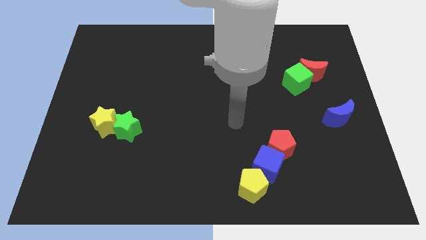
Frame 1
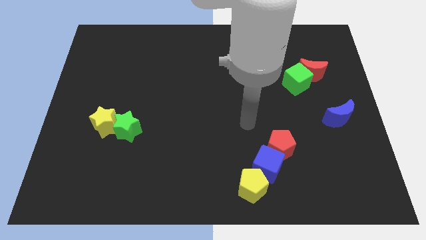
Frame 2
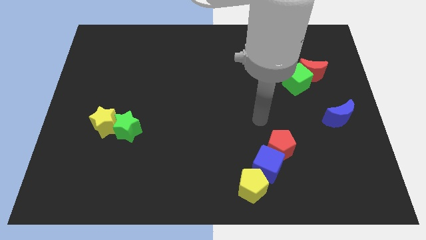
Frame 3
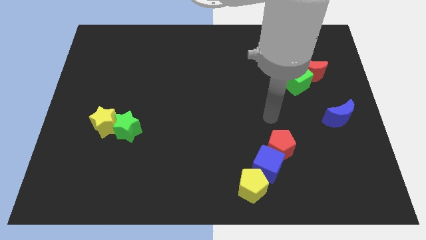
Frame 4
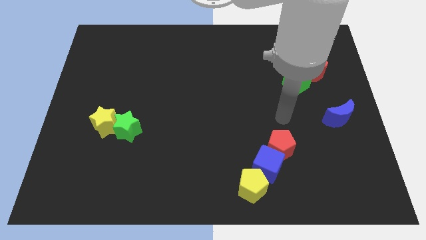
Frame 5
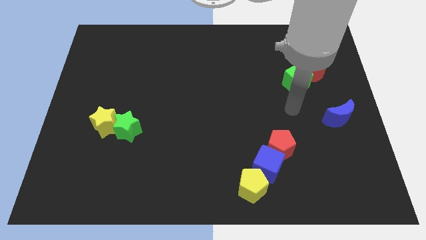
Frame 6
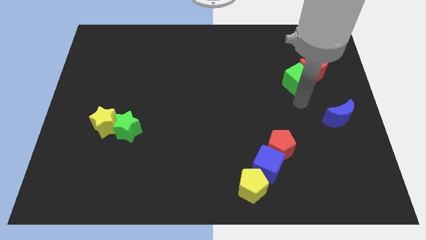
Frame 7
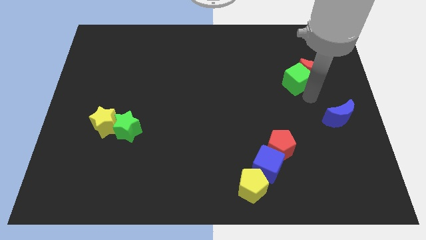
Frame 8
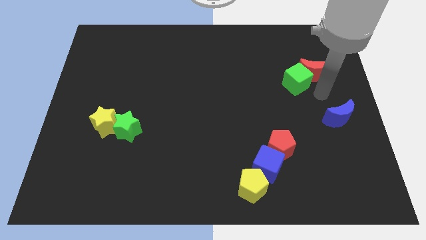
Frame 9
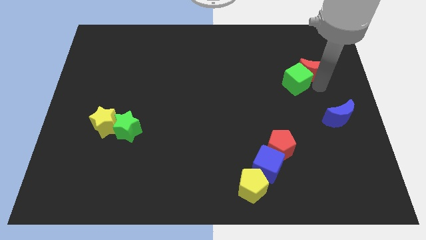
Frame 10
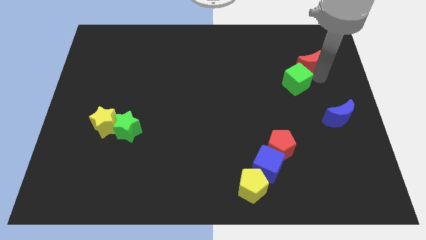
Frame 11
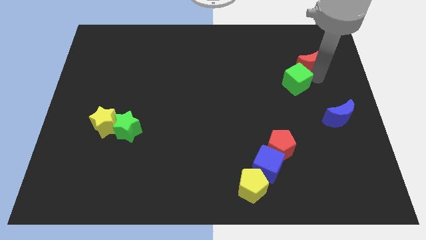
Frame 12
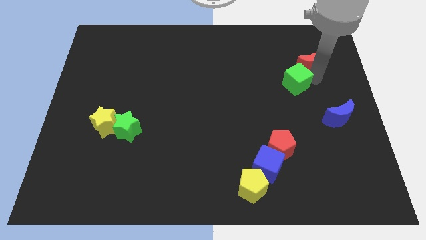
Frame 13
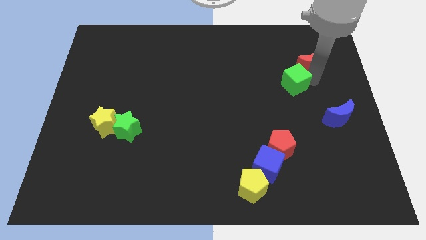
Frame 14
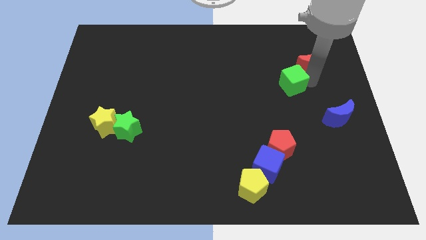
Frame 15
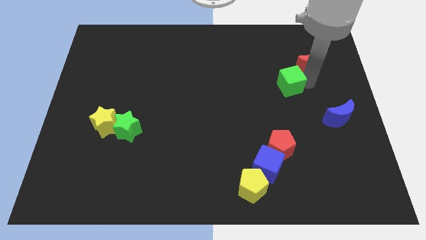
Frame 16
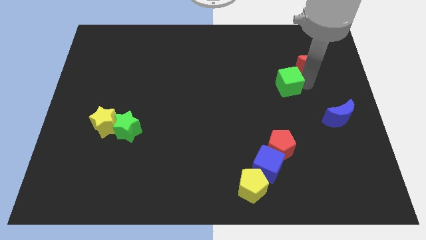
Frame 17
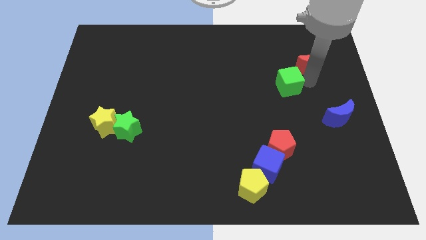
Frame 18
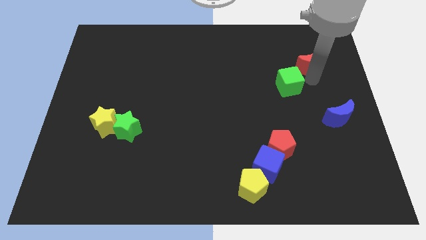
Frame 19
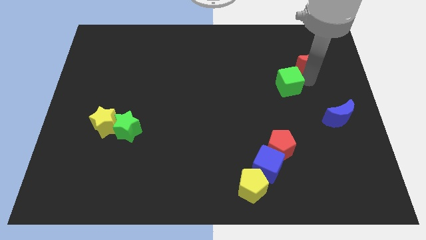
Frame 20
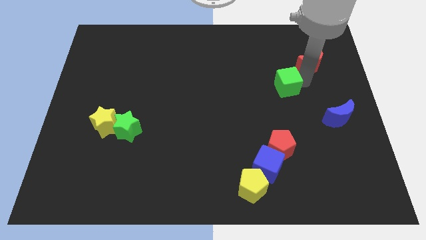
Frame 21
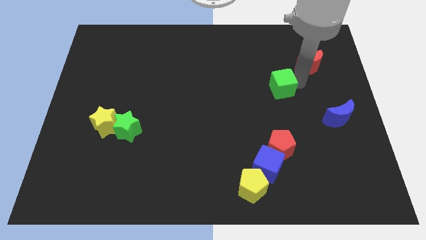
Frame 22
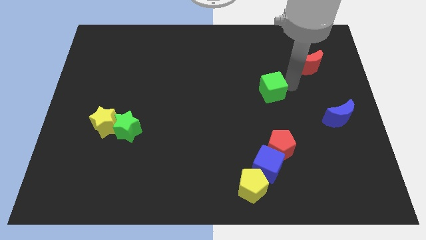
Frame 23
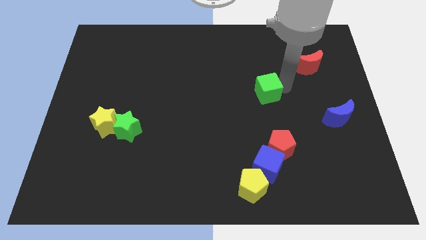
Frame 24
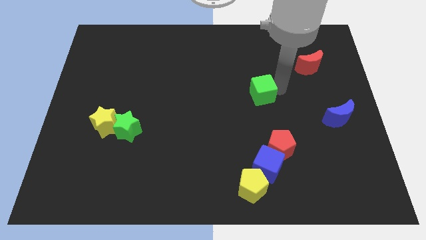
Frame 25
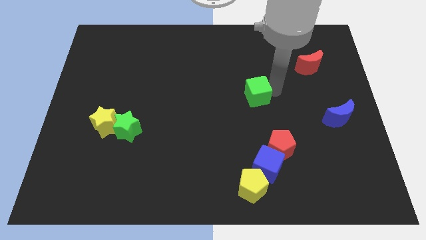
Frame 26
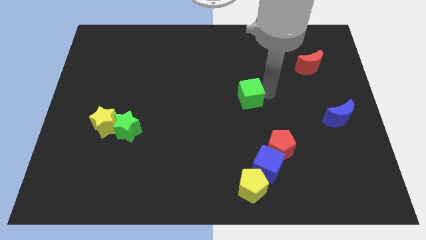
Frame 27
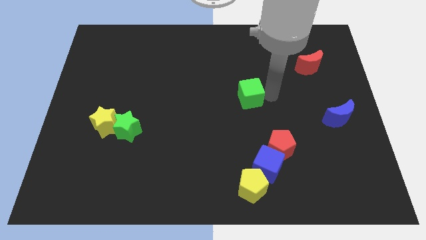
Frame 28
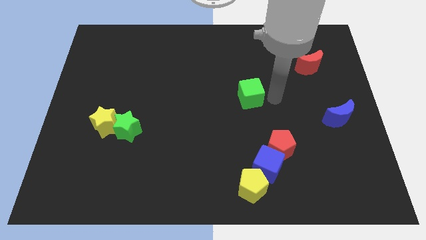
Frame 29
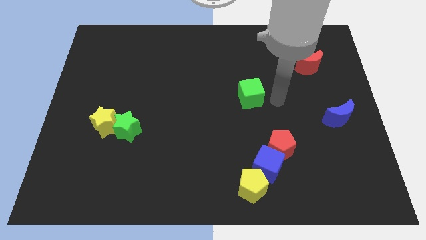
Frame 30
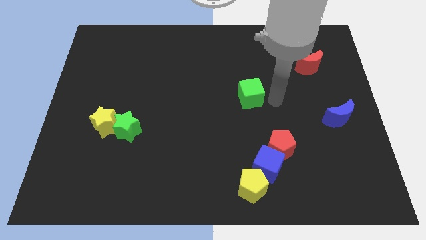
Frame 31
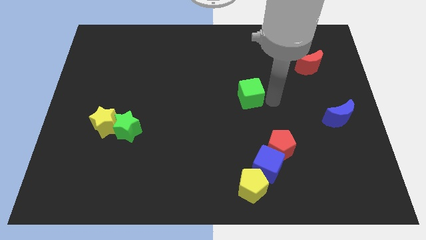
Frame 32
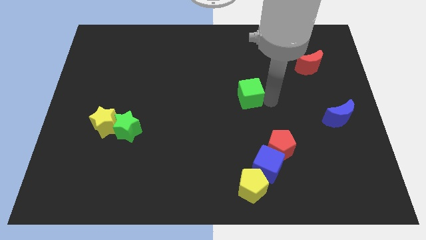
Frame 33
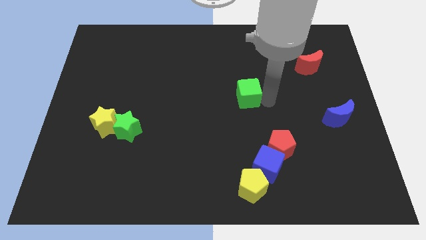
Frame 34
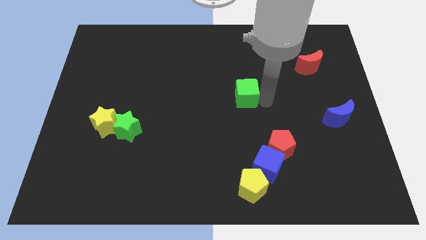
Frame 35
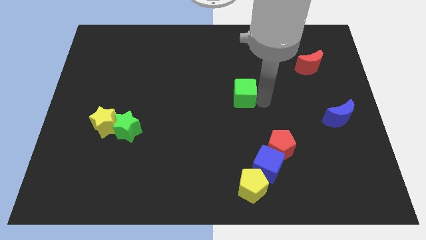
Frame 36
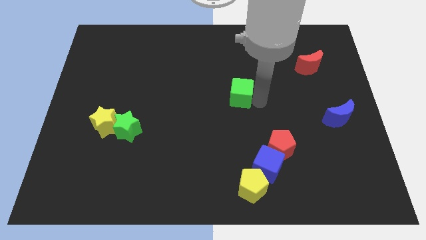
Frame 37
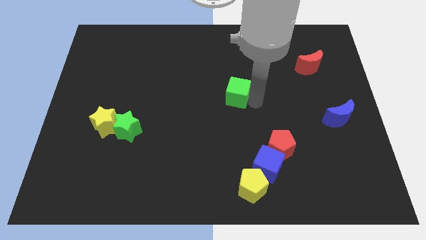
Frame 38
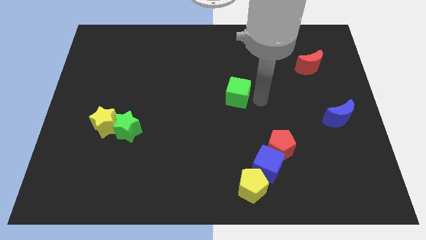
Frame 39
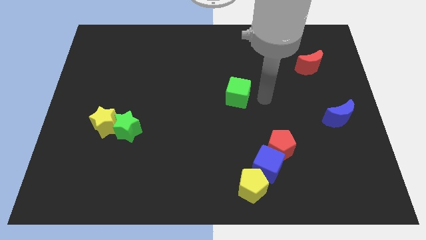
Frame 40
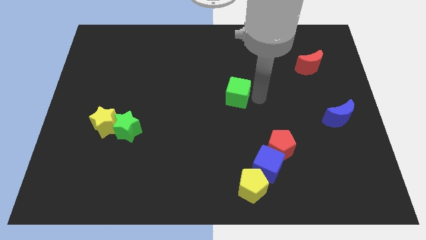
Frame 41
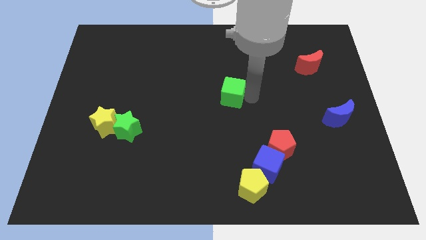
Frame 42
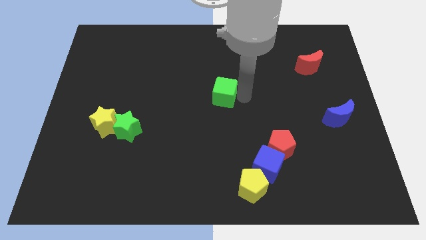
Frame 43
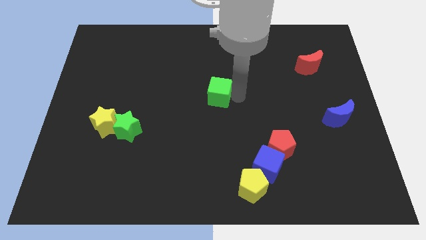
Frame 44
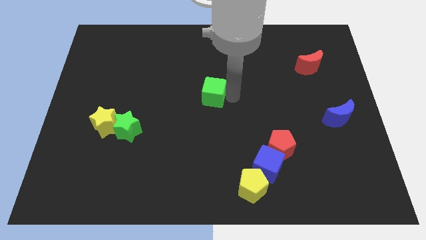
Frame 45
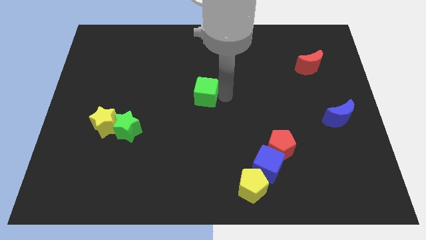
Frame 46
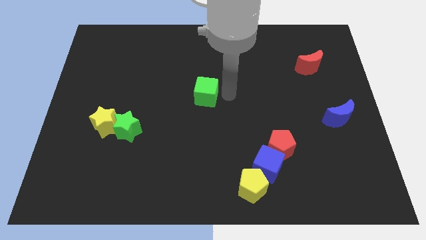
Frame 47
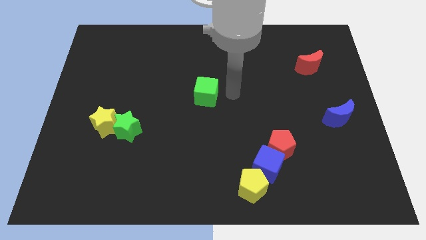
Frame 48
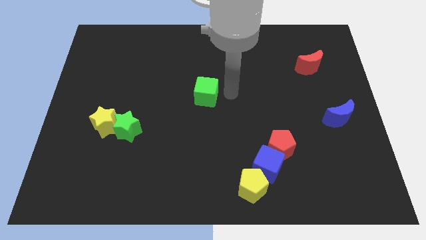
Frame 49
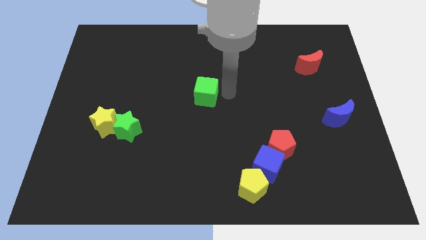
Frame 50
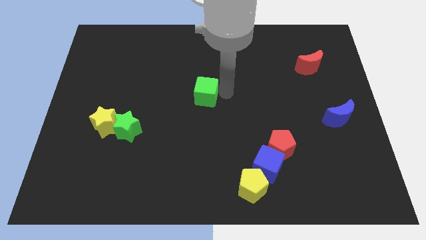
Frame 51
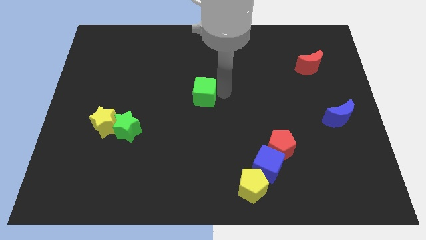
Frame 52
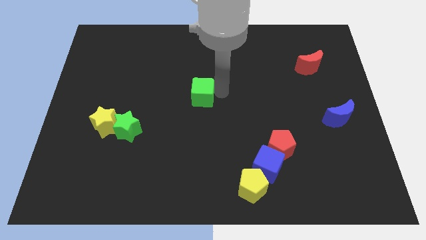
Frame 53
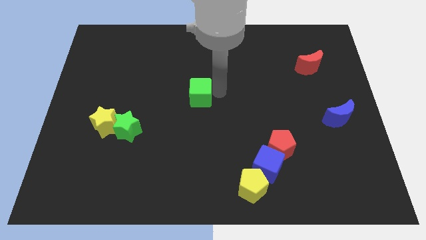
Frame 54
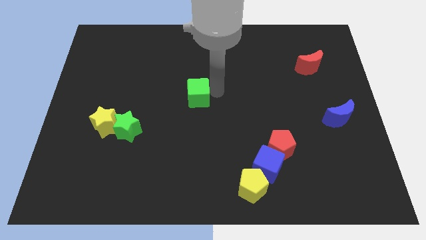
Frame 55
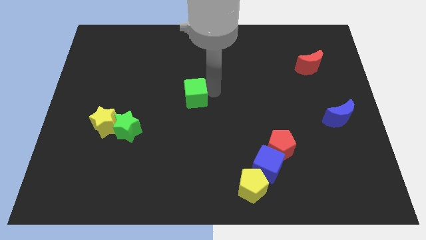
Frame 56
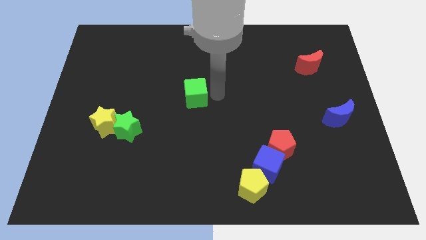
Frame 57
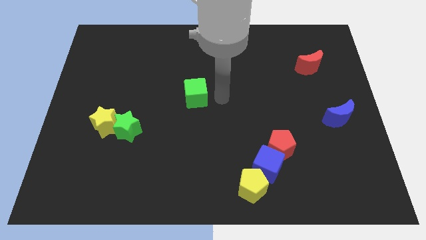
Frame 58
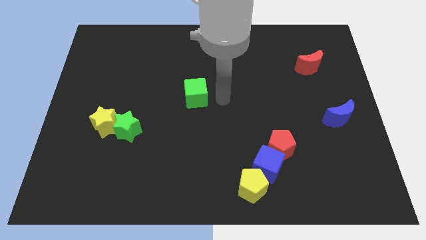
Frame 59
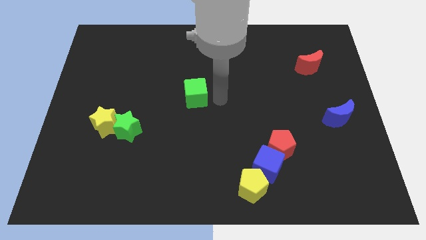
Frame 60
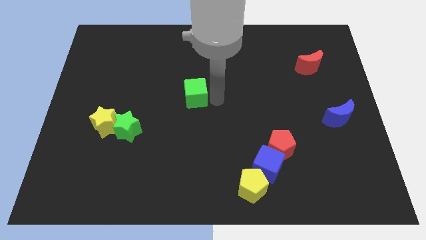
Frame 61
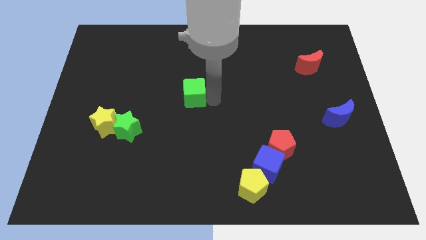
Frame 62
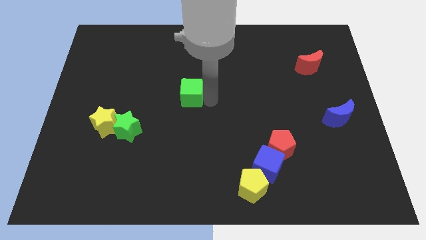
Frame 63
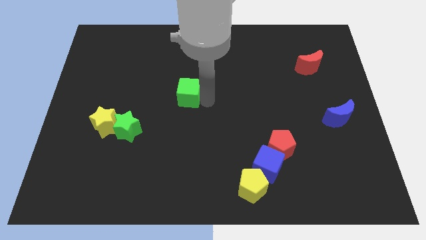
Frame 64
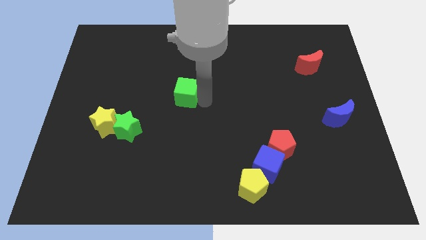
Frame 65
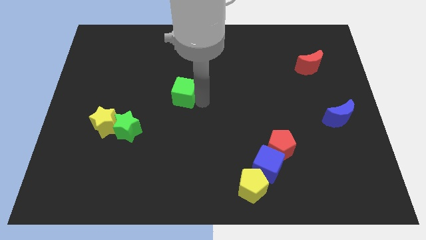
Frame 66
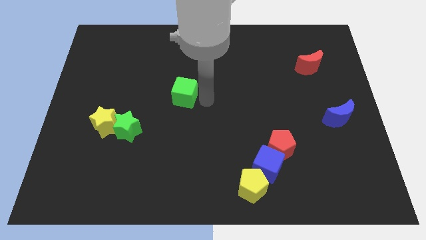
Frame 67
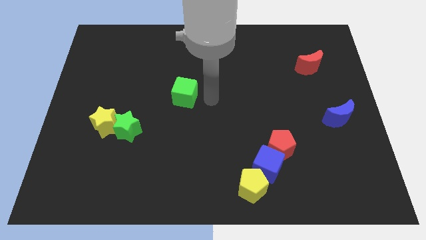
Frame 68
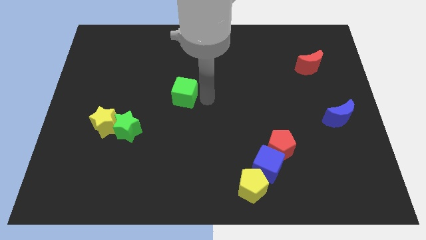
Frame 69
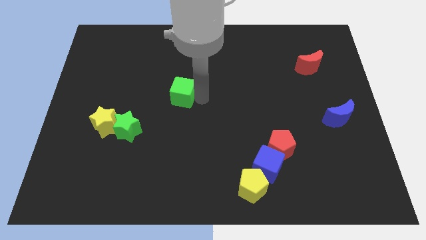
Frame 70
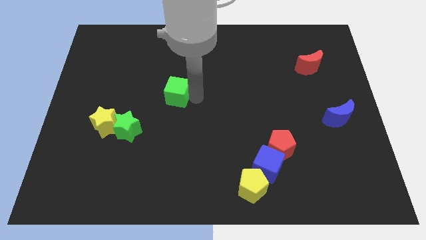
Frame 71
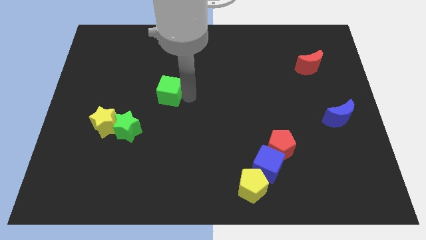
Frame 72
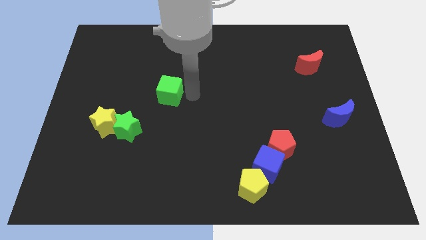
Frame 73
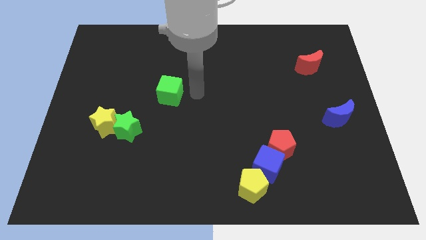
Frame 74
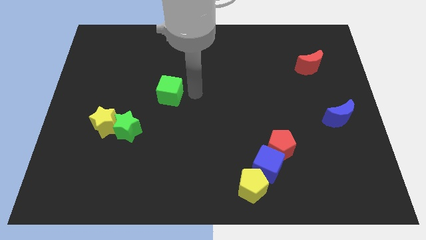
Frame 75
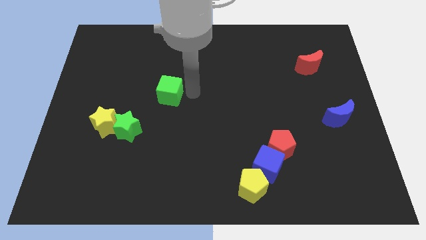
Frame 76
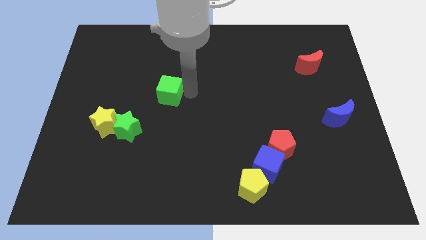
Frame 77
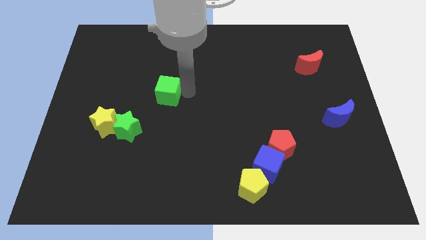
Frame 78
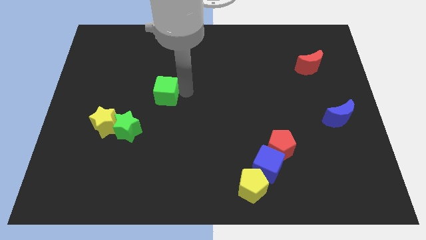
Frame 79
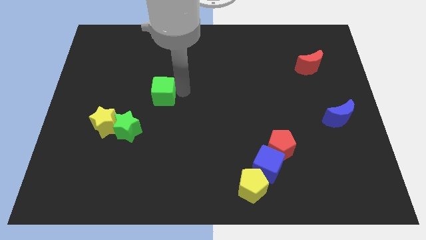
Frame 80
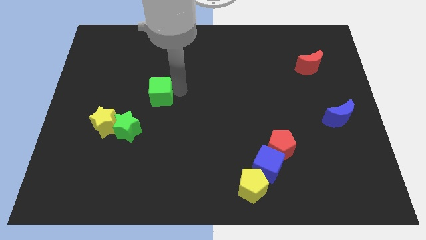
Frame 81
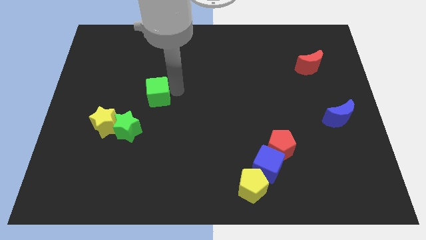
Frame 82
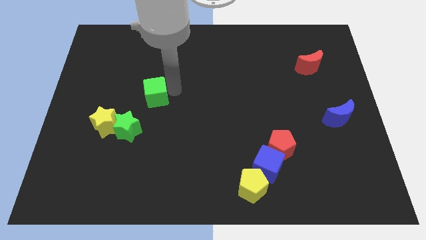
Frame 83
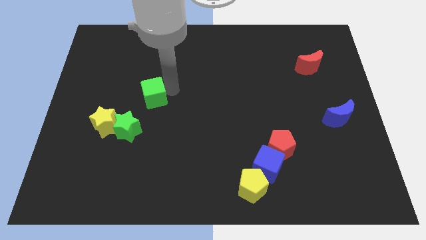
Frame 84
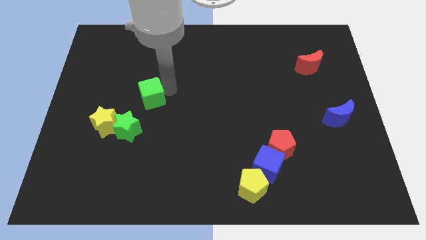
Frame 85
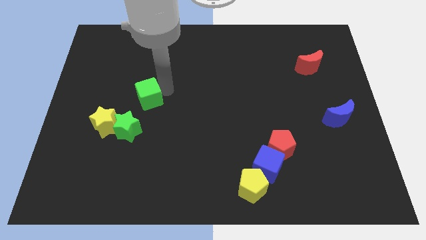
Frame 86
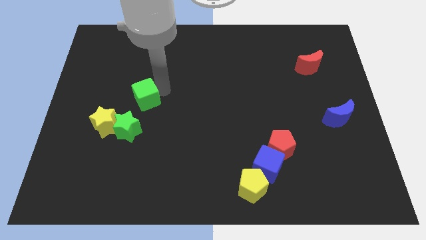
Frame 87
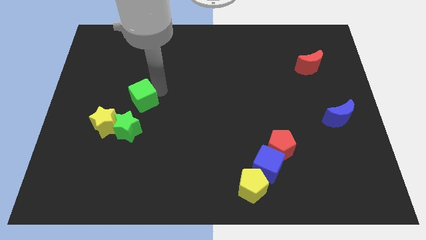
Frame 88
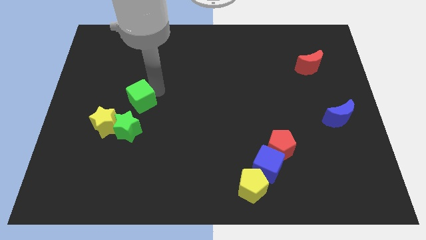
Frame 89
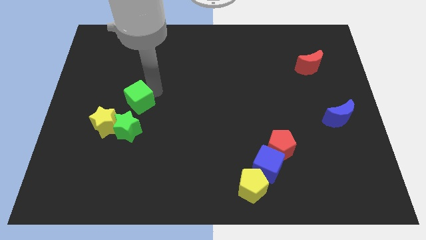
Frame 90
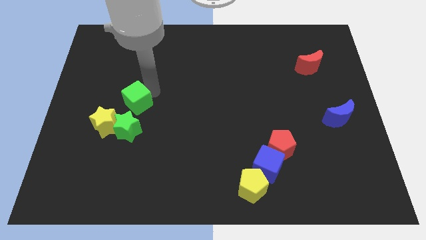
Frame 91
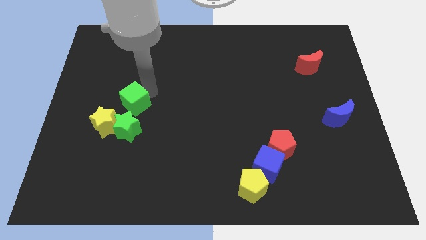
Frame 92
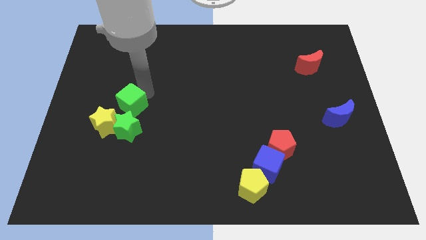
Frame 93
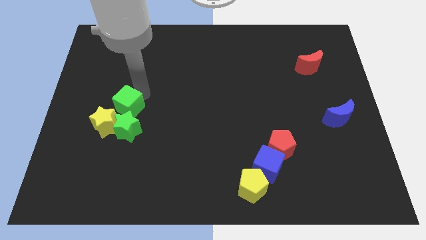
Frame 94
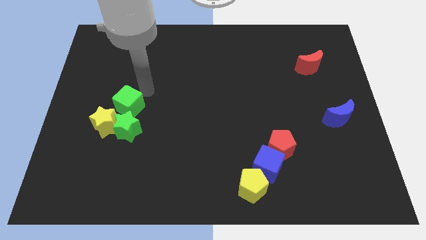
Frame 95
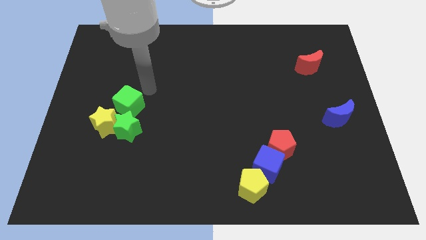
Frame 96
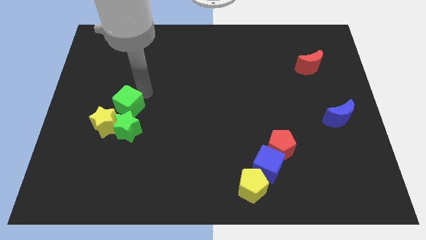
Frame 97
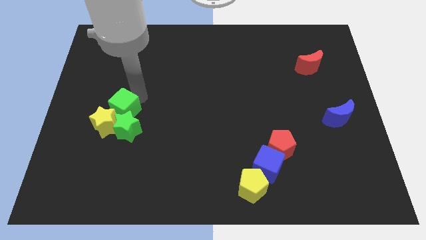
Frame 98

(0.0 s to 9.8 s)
slide the green cube next to the yellow star
